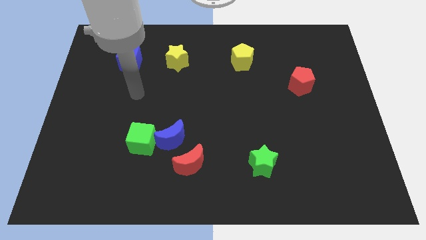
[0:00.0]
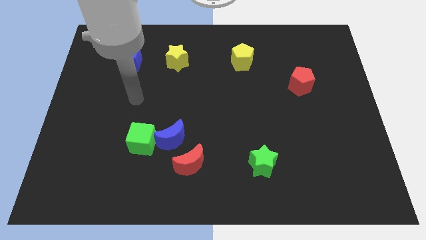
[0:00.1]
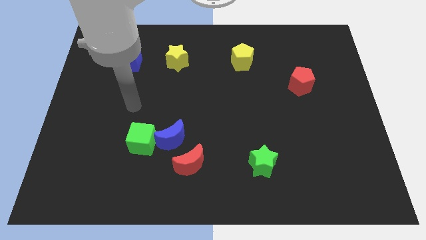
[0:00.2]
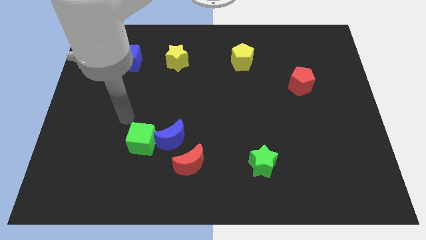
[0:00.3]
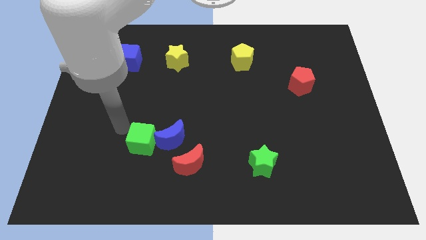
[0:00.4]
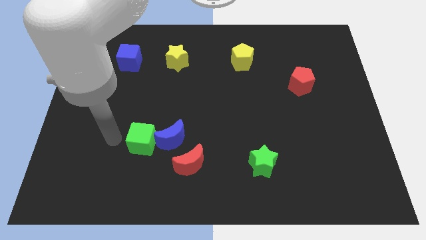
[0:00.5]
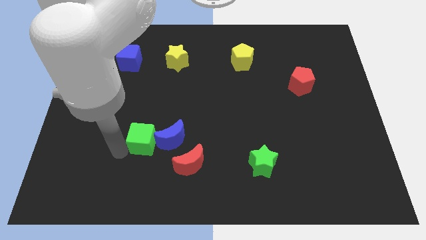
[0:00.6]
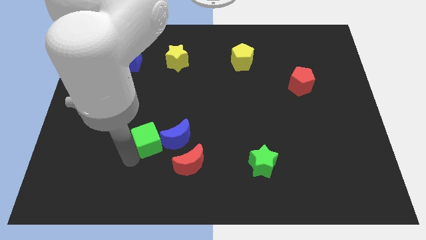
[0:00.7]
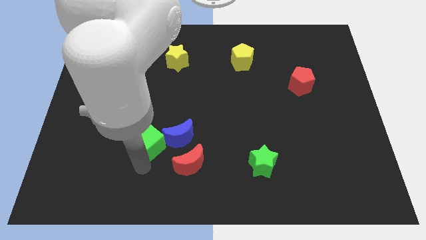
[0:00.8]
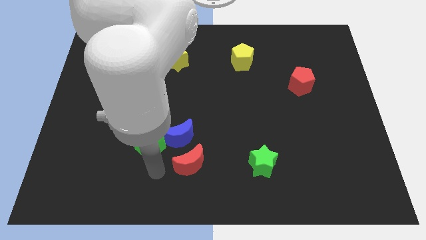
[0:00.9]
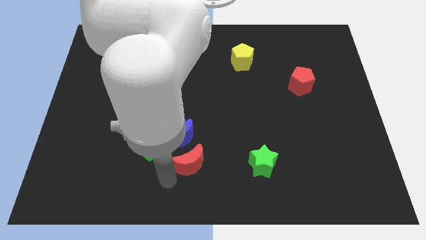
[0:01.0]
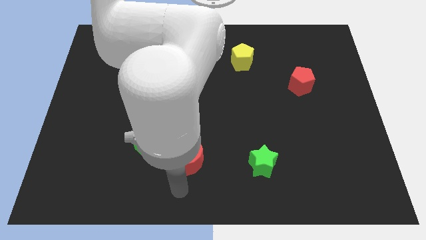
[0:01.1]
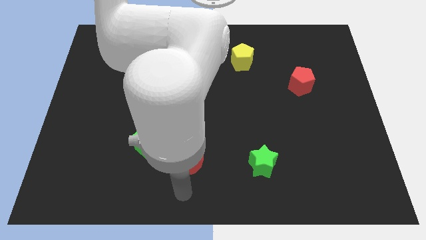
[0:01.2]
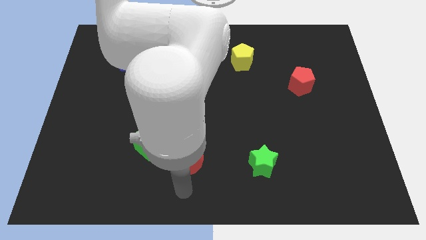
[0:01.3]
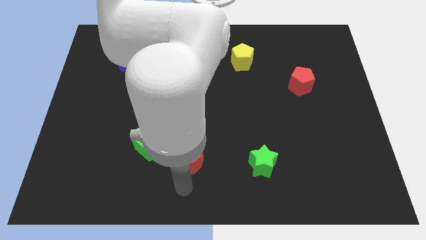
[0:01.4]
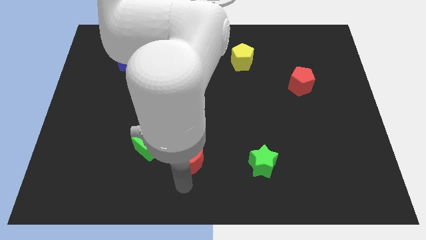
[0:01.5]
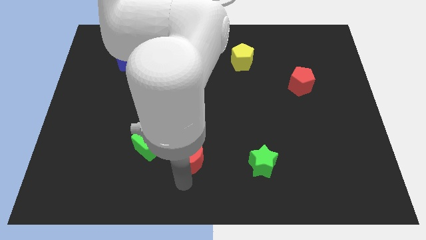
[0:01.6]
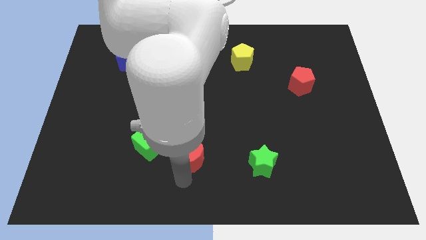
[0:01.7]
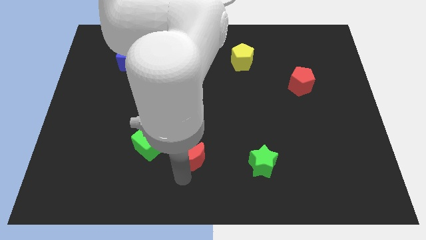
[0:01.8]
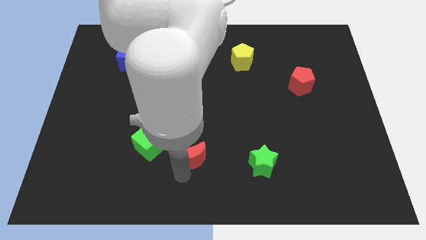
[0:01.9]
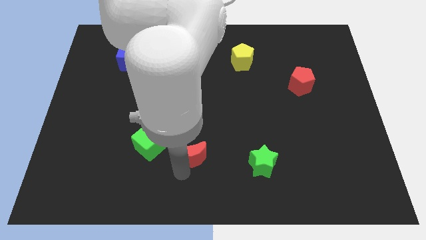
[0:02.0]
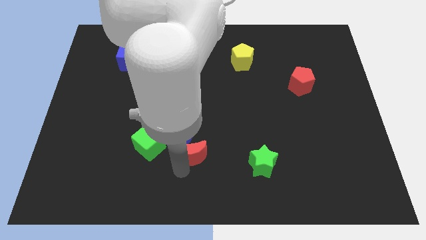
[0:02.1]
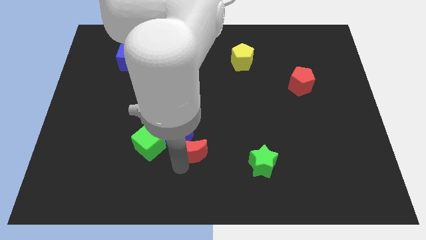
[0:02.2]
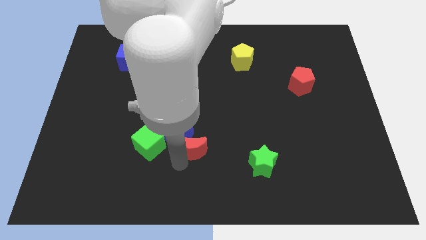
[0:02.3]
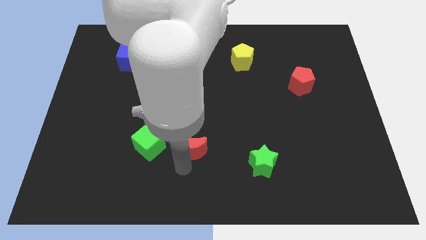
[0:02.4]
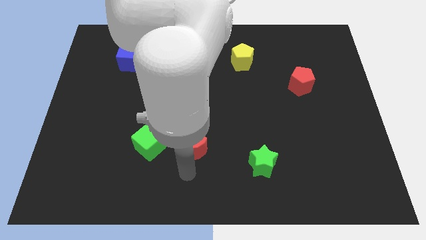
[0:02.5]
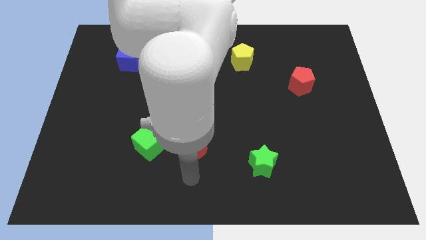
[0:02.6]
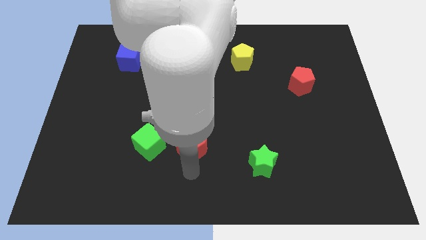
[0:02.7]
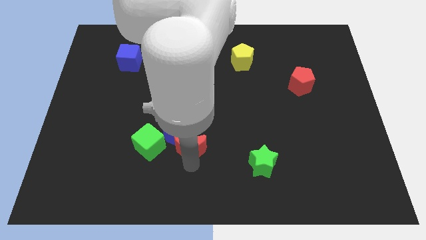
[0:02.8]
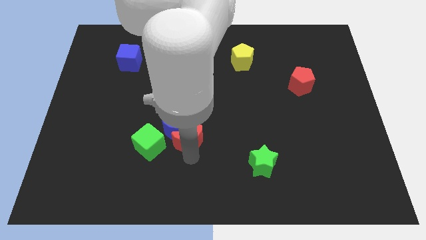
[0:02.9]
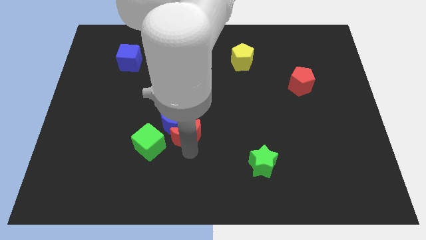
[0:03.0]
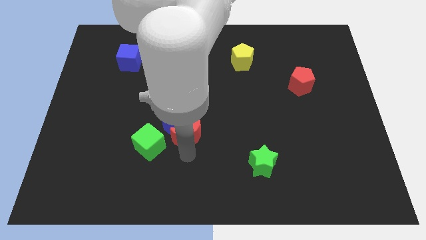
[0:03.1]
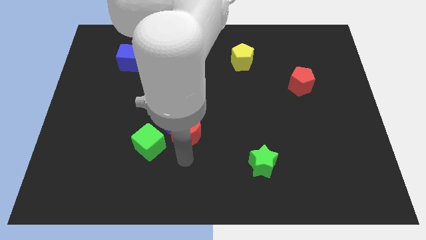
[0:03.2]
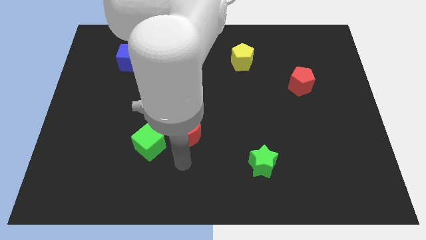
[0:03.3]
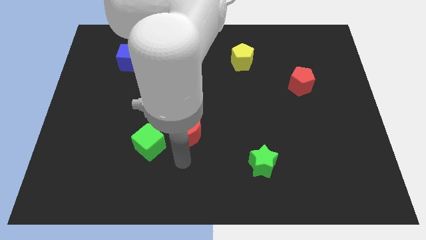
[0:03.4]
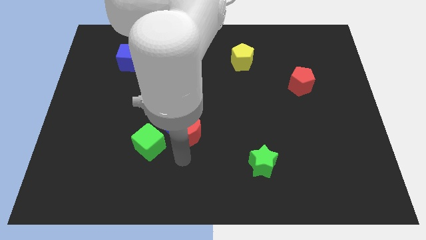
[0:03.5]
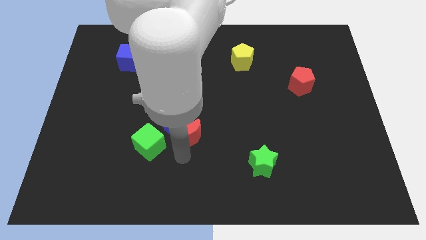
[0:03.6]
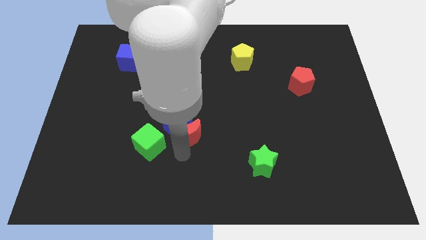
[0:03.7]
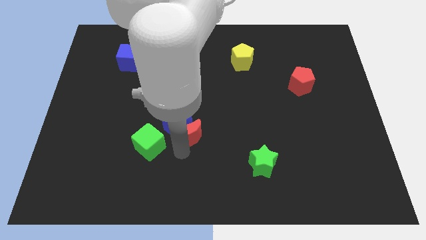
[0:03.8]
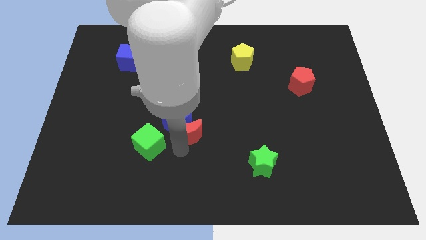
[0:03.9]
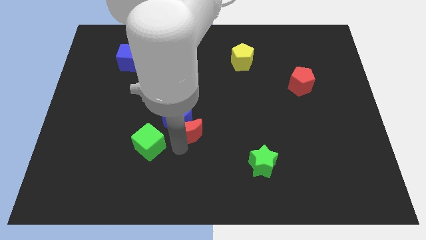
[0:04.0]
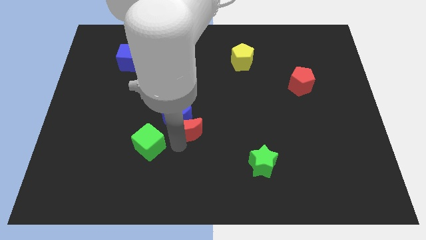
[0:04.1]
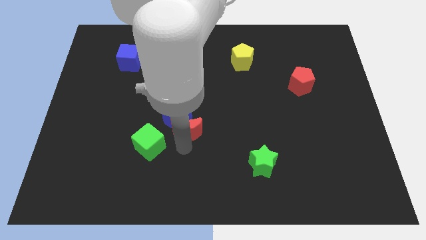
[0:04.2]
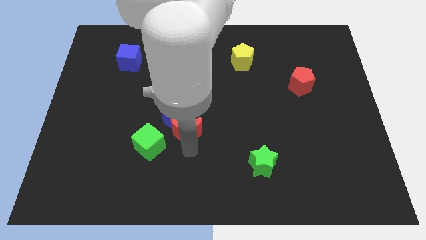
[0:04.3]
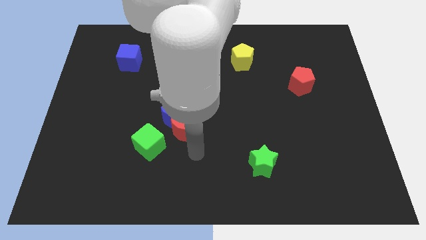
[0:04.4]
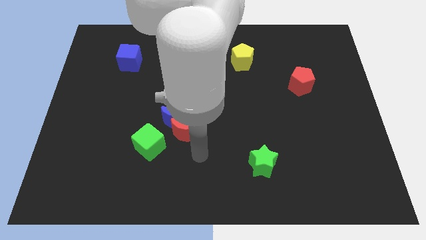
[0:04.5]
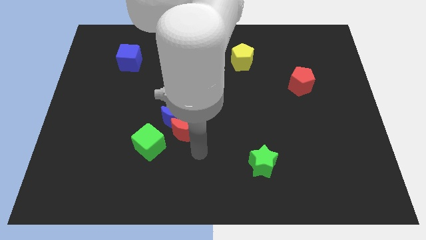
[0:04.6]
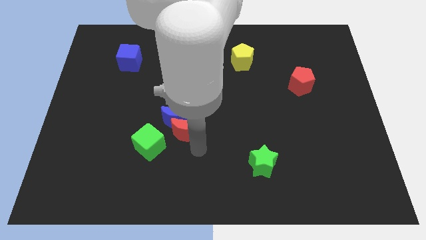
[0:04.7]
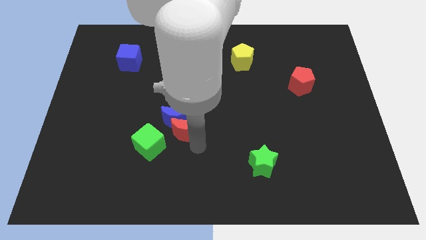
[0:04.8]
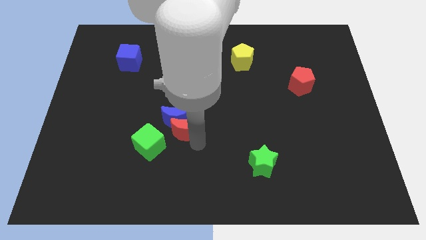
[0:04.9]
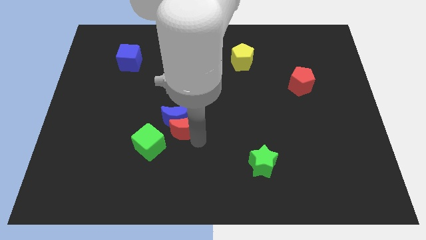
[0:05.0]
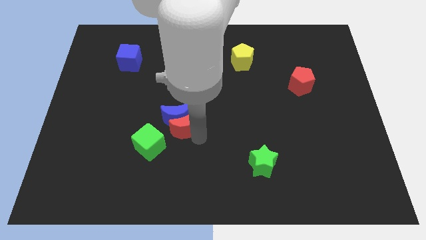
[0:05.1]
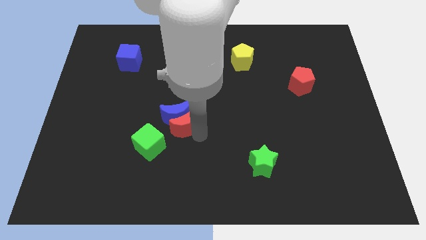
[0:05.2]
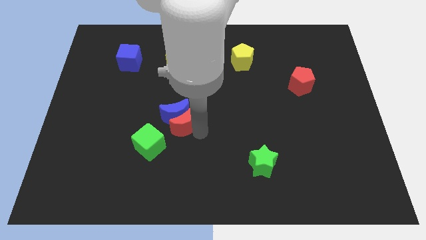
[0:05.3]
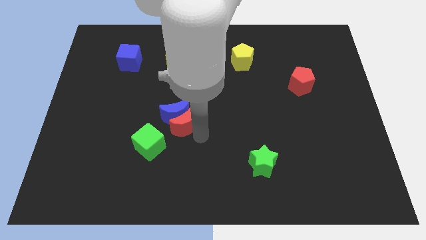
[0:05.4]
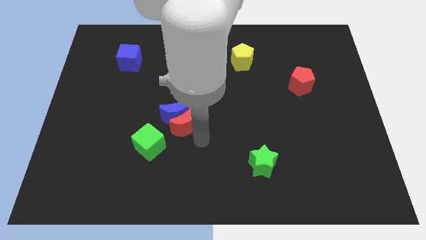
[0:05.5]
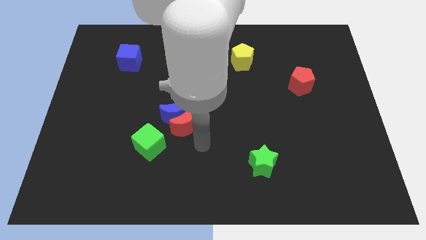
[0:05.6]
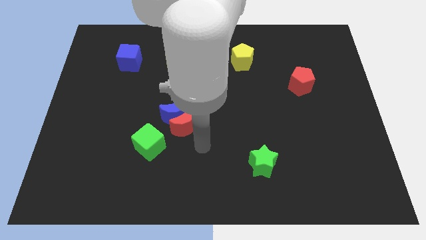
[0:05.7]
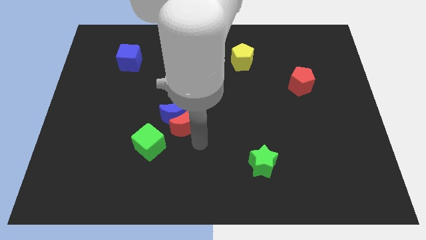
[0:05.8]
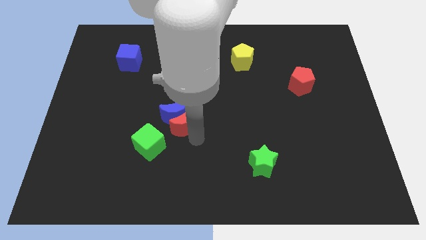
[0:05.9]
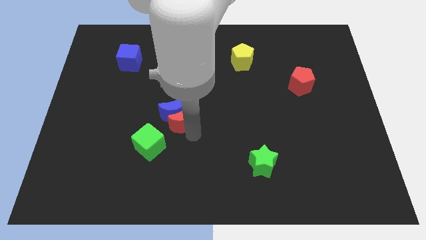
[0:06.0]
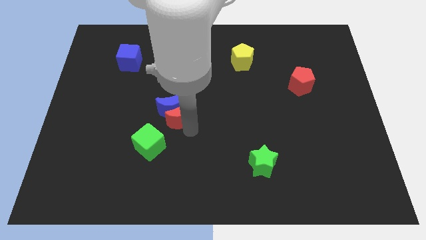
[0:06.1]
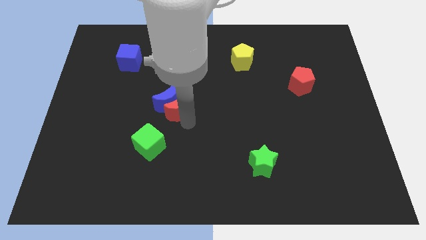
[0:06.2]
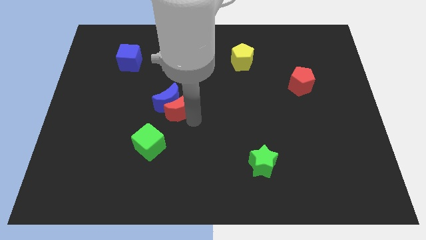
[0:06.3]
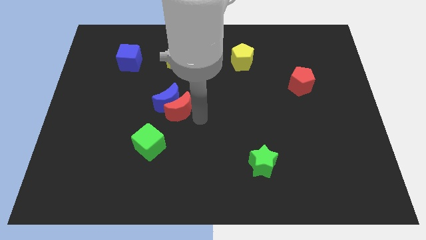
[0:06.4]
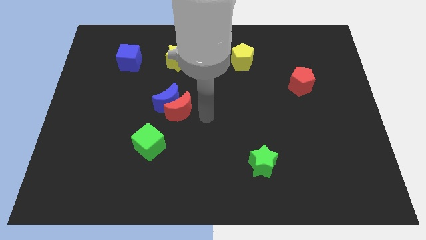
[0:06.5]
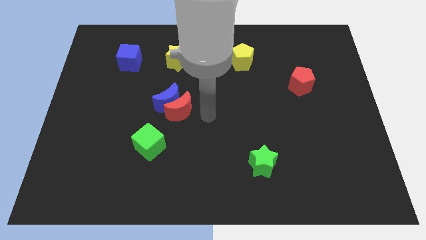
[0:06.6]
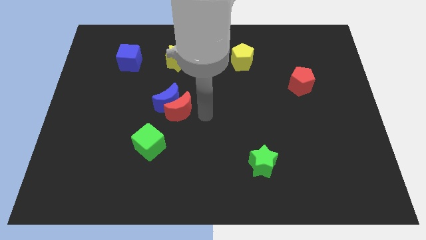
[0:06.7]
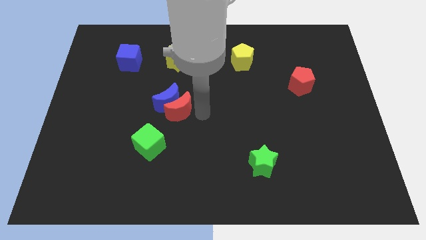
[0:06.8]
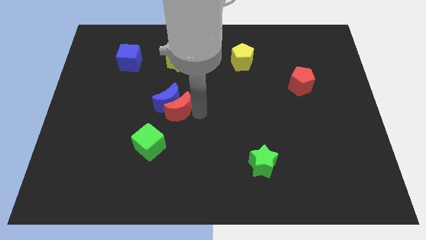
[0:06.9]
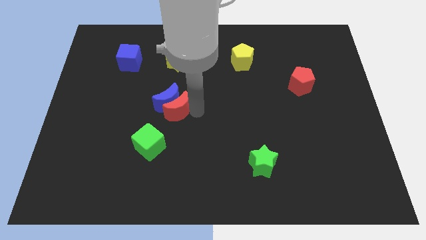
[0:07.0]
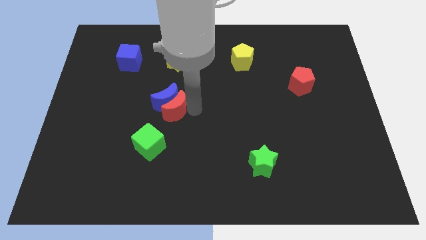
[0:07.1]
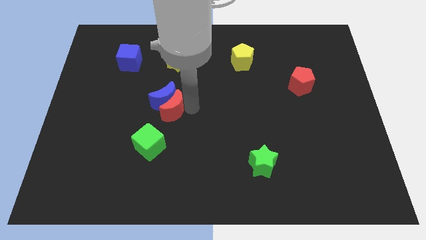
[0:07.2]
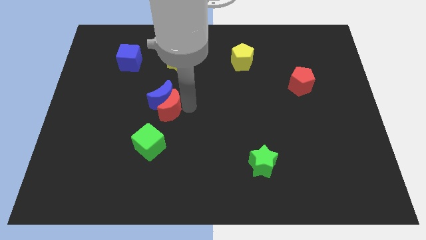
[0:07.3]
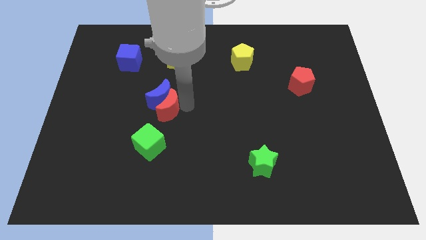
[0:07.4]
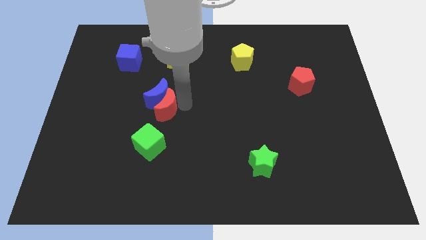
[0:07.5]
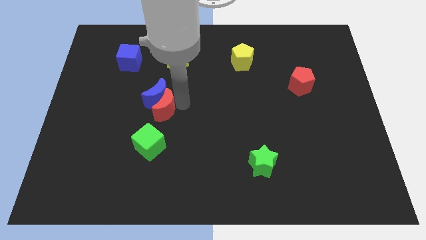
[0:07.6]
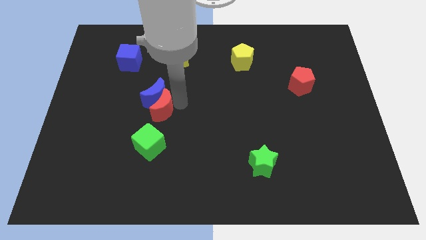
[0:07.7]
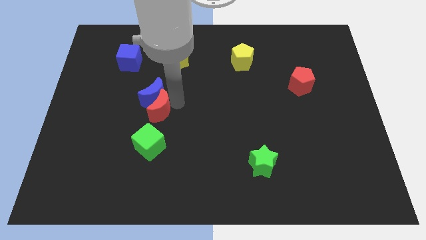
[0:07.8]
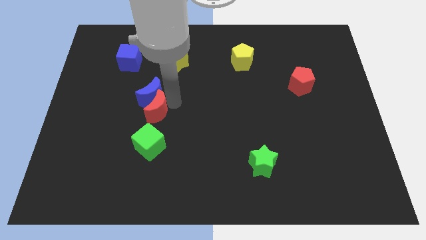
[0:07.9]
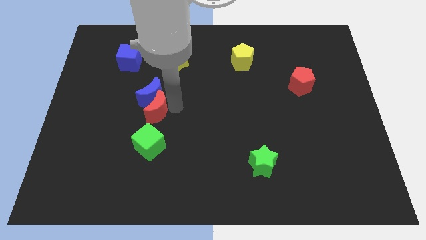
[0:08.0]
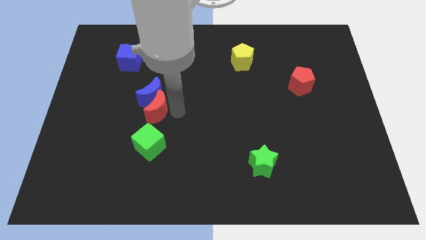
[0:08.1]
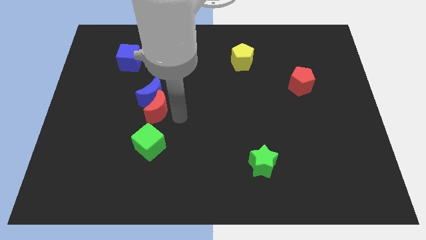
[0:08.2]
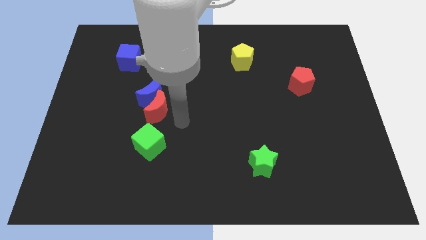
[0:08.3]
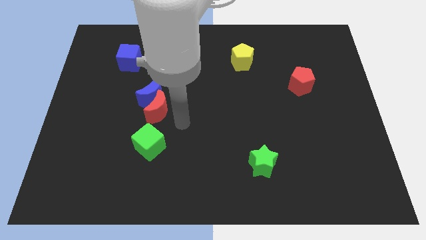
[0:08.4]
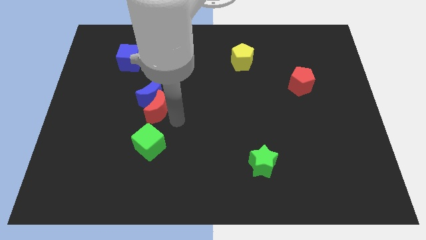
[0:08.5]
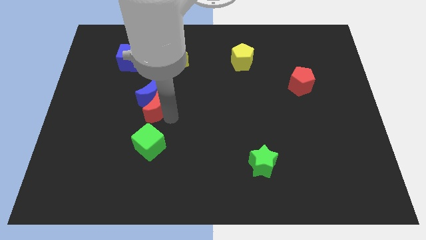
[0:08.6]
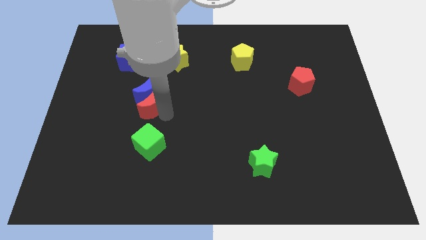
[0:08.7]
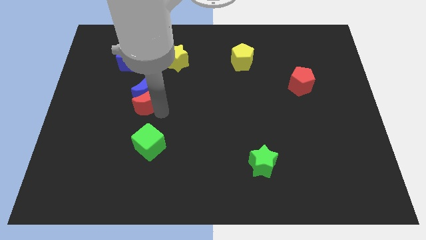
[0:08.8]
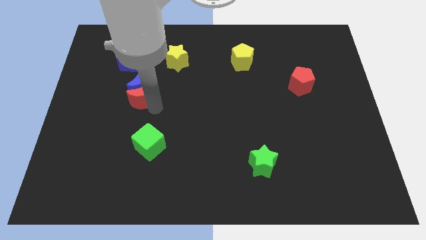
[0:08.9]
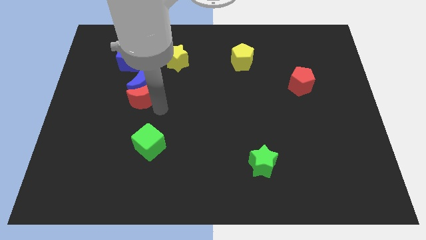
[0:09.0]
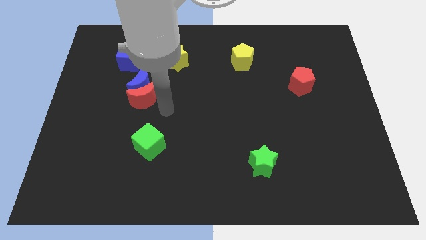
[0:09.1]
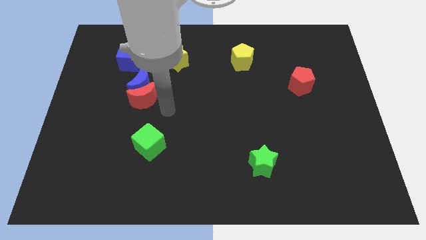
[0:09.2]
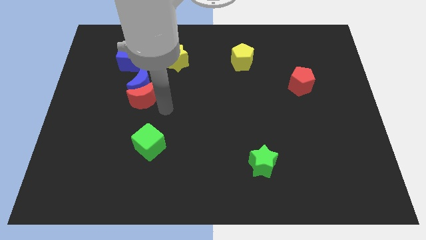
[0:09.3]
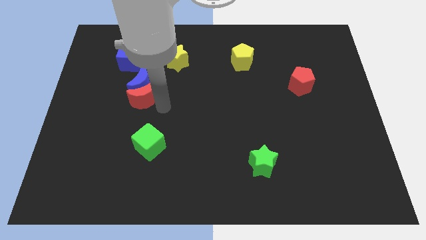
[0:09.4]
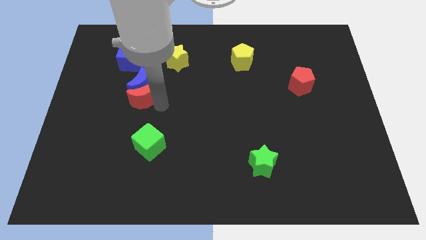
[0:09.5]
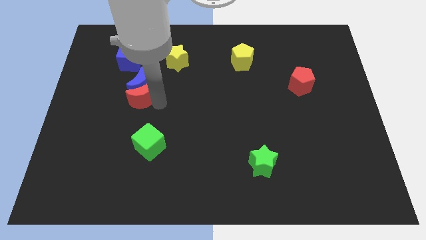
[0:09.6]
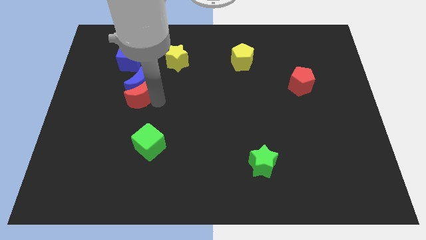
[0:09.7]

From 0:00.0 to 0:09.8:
move the red moon to the bottom of the blue cube
